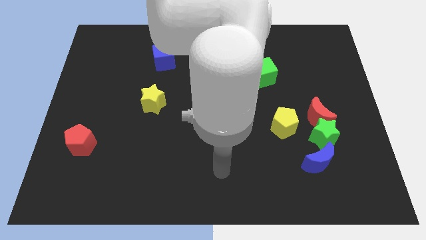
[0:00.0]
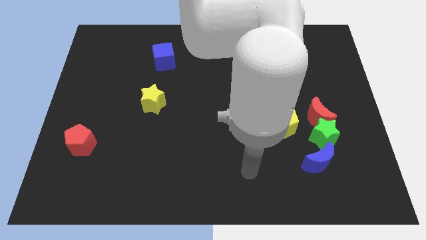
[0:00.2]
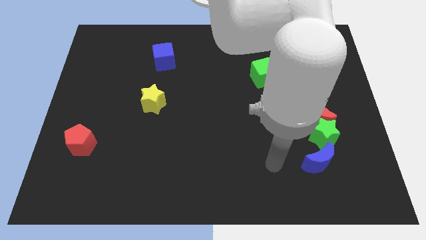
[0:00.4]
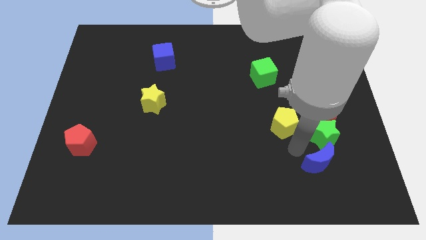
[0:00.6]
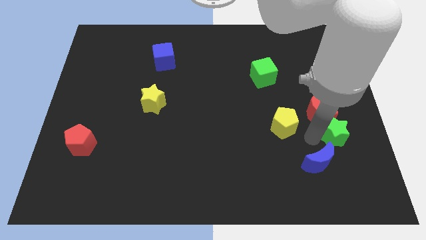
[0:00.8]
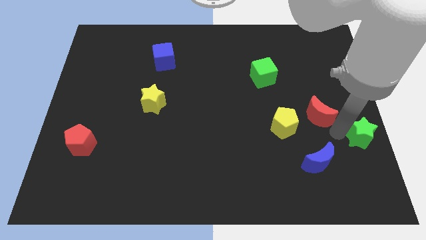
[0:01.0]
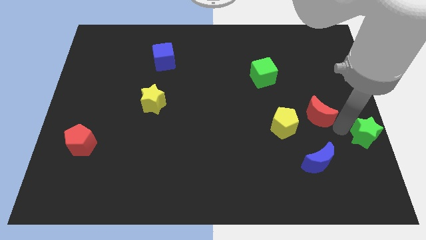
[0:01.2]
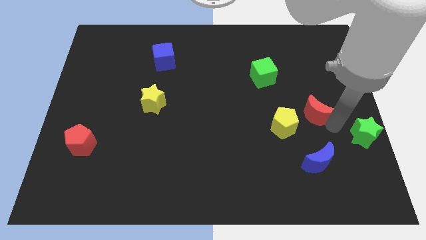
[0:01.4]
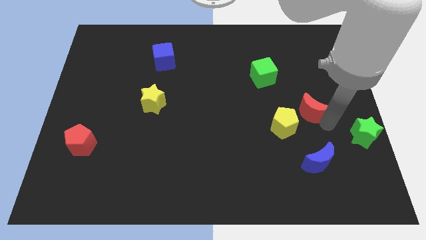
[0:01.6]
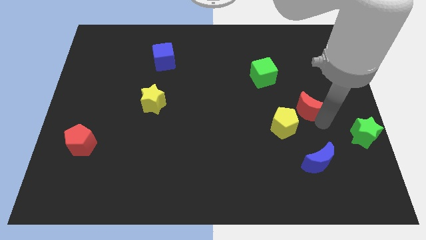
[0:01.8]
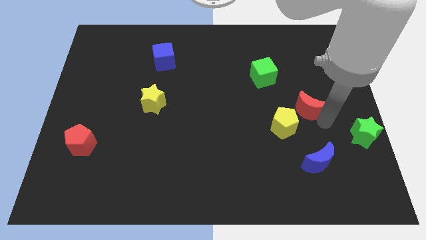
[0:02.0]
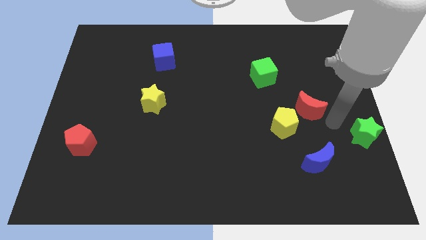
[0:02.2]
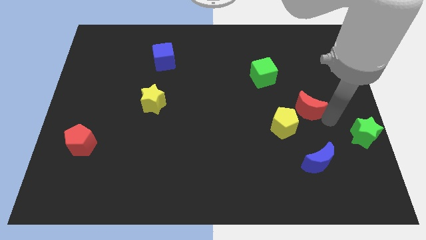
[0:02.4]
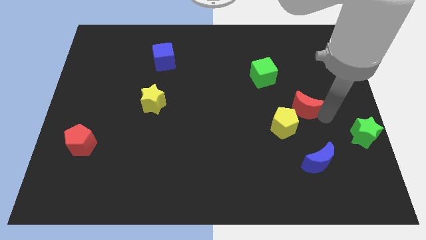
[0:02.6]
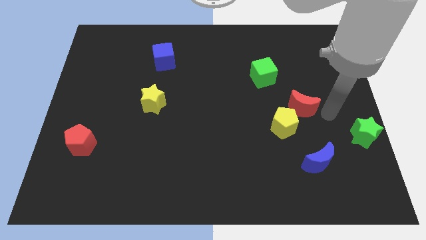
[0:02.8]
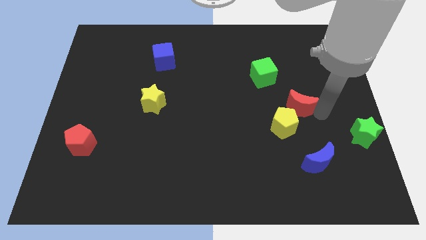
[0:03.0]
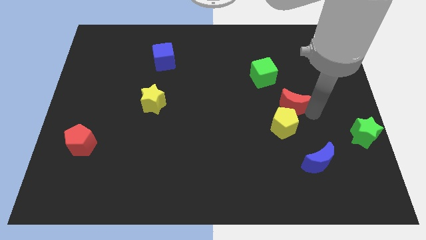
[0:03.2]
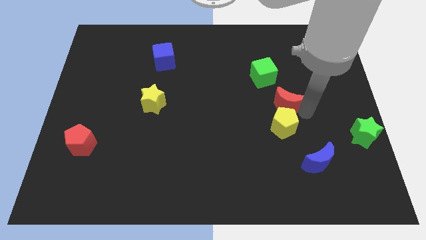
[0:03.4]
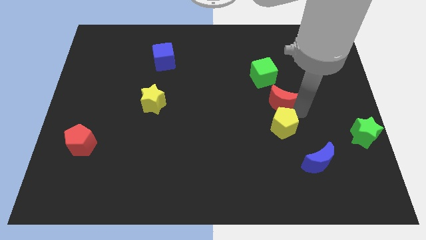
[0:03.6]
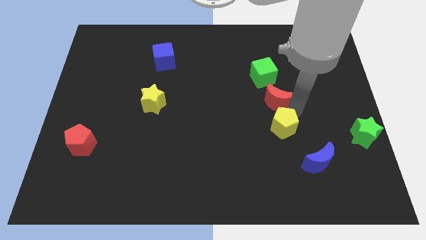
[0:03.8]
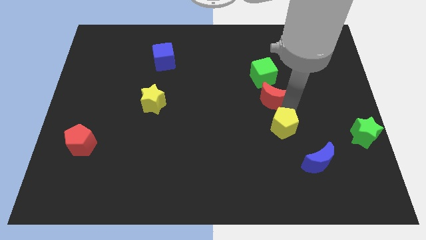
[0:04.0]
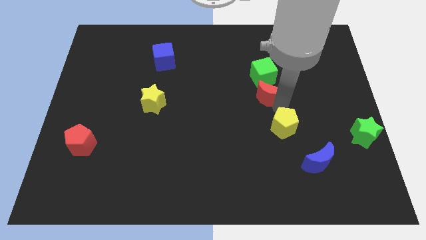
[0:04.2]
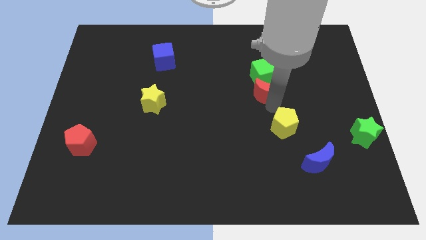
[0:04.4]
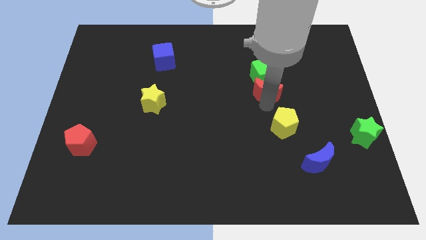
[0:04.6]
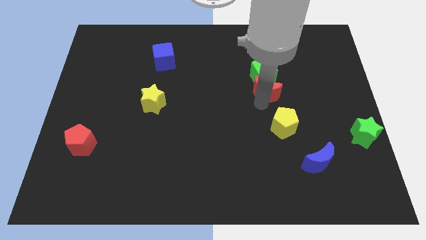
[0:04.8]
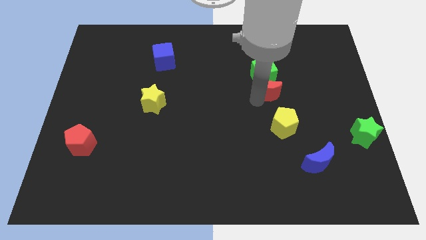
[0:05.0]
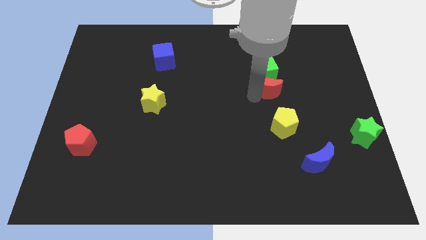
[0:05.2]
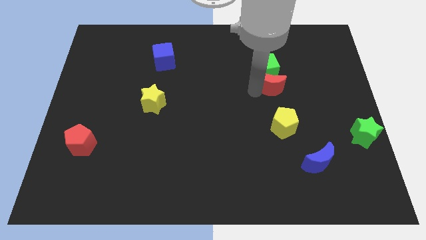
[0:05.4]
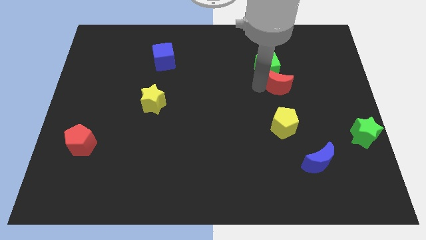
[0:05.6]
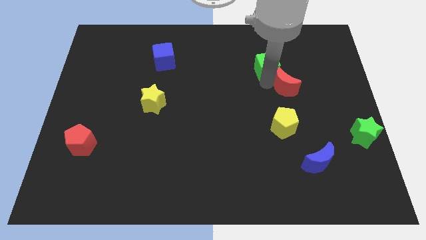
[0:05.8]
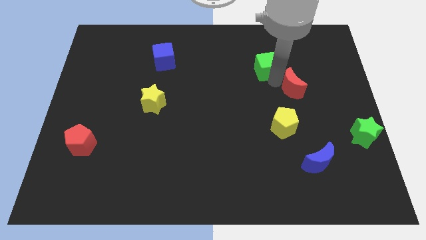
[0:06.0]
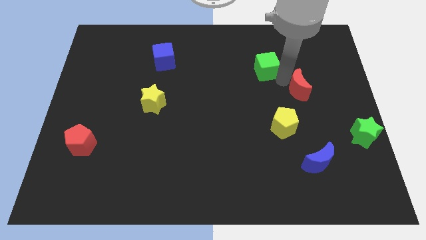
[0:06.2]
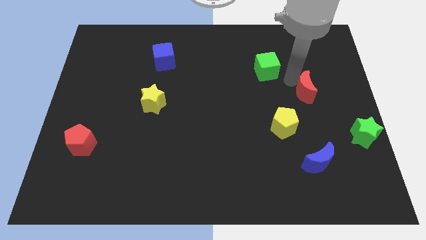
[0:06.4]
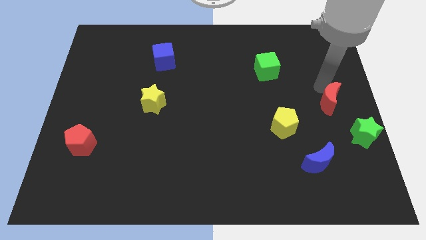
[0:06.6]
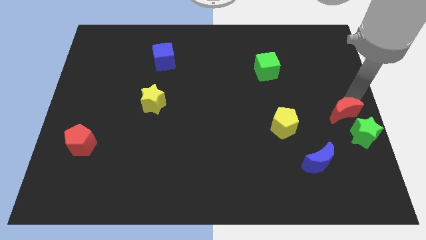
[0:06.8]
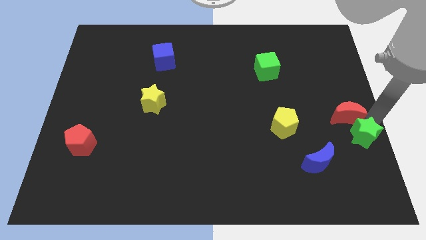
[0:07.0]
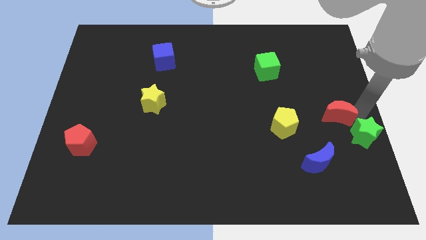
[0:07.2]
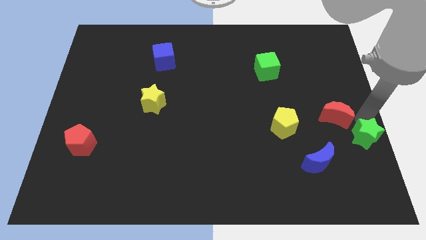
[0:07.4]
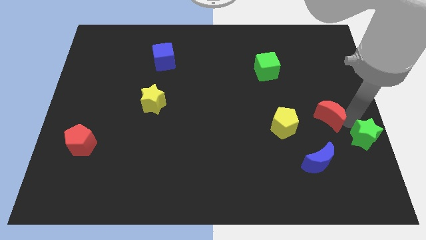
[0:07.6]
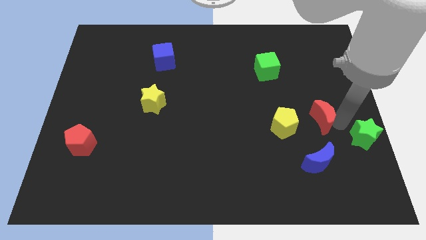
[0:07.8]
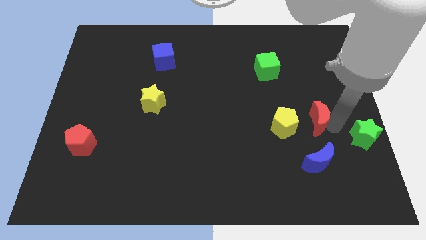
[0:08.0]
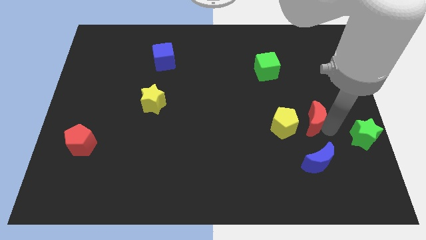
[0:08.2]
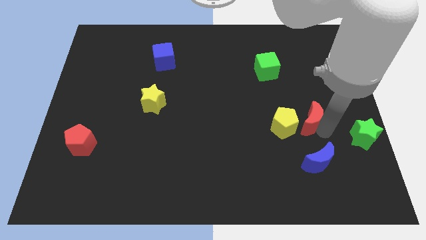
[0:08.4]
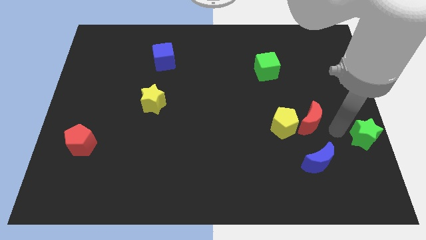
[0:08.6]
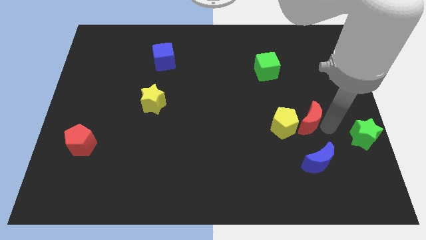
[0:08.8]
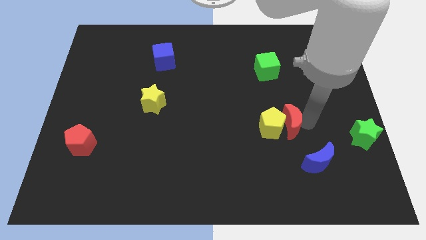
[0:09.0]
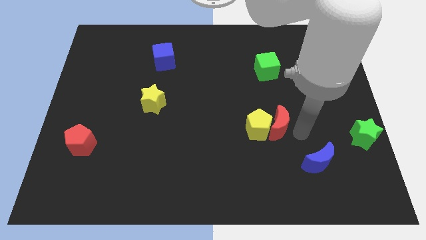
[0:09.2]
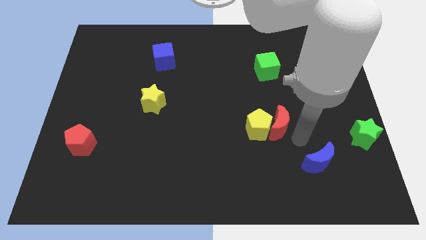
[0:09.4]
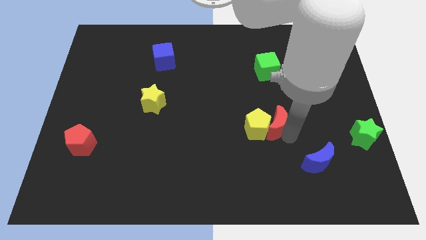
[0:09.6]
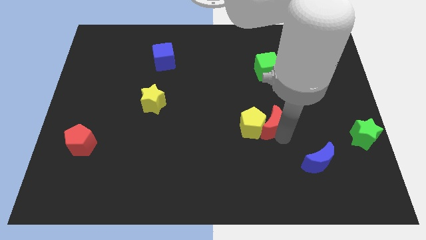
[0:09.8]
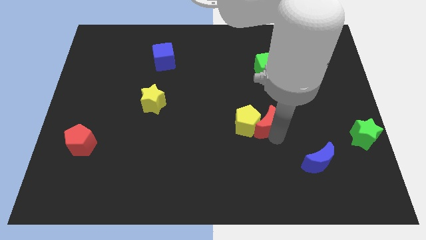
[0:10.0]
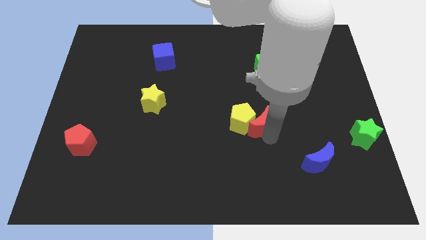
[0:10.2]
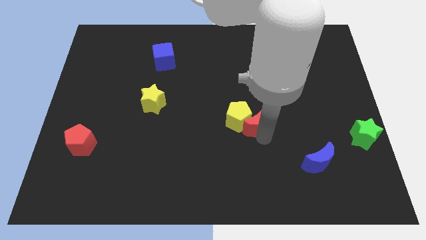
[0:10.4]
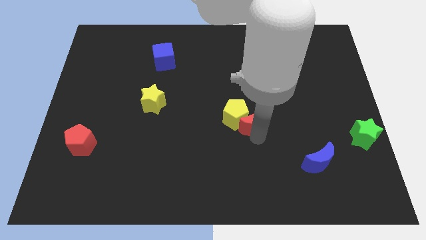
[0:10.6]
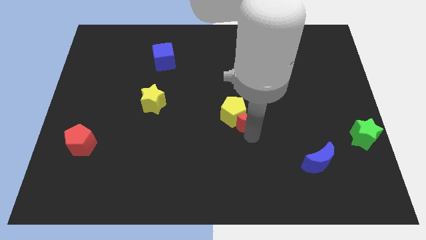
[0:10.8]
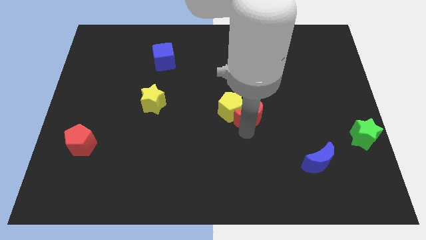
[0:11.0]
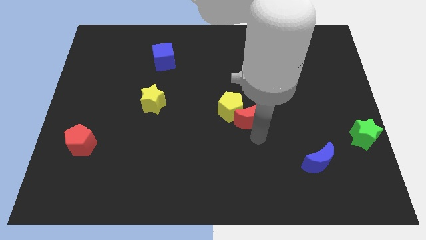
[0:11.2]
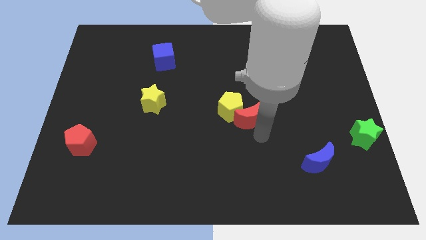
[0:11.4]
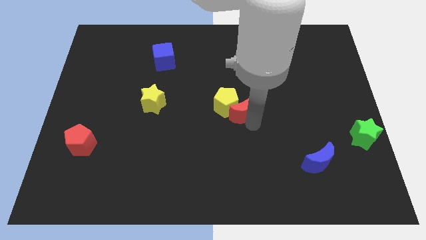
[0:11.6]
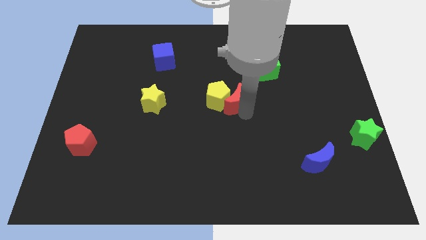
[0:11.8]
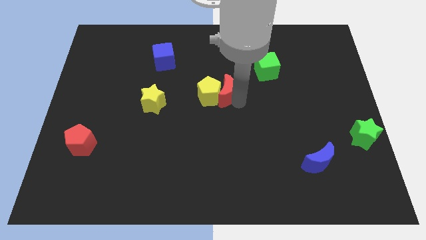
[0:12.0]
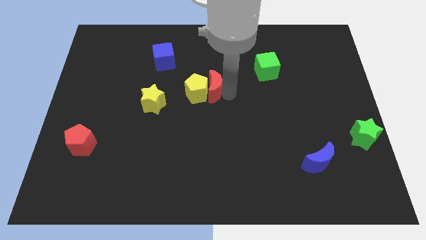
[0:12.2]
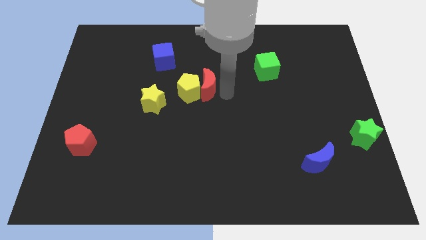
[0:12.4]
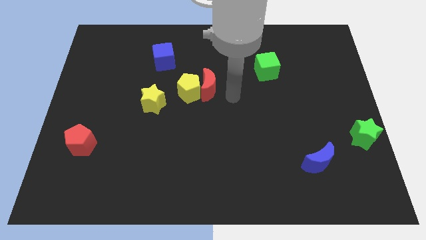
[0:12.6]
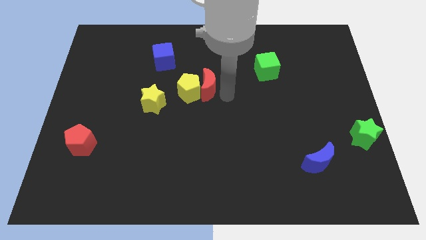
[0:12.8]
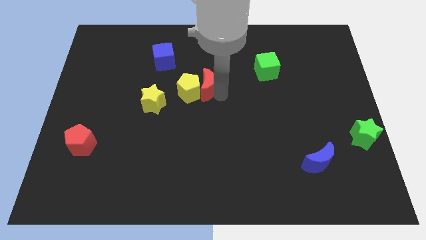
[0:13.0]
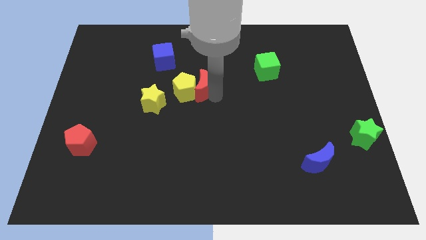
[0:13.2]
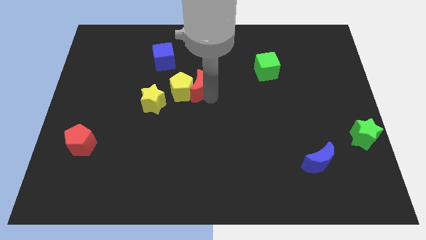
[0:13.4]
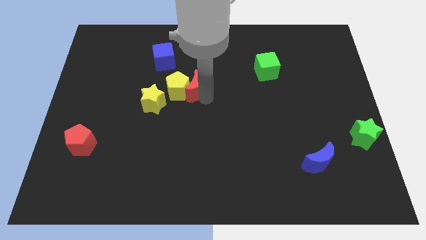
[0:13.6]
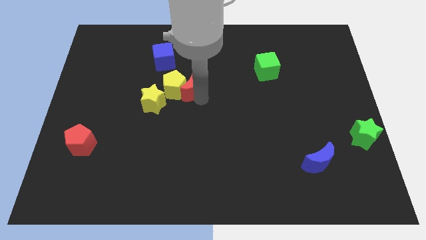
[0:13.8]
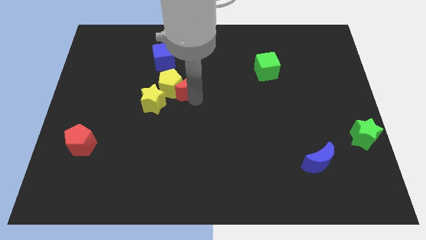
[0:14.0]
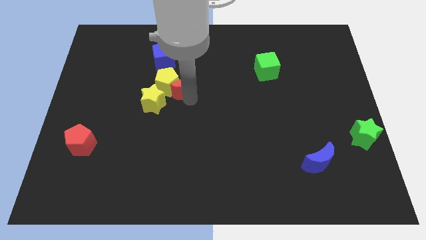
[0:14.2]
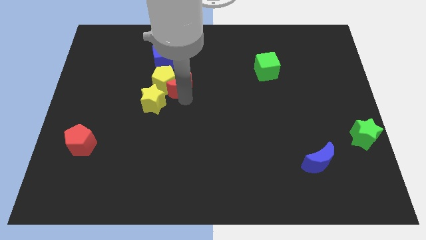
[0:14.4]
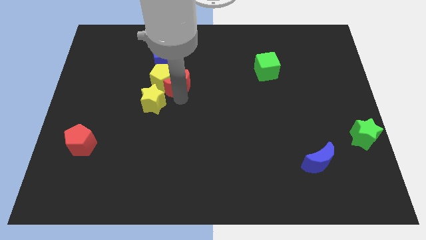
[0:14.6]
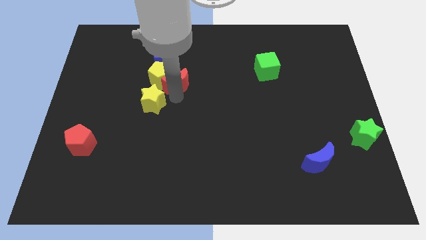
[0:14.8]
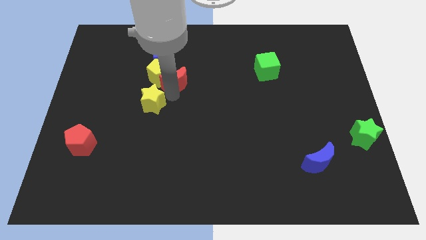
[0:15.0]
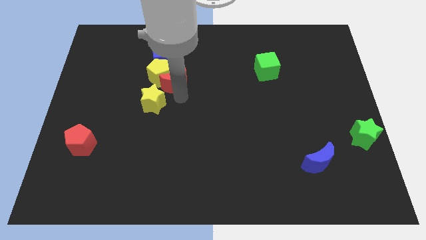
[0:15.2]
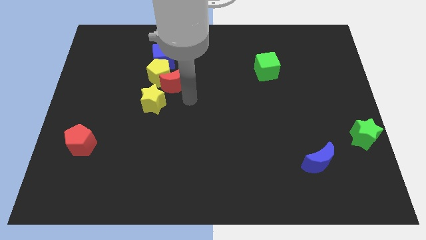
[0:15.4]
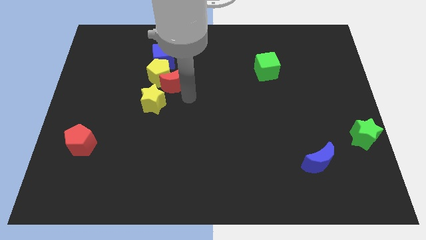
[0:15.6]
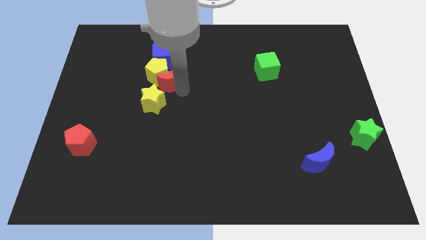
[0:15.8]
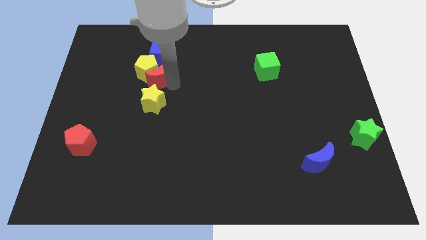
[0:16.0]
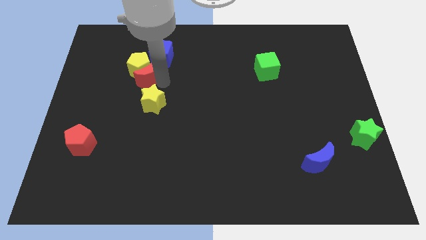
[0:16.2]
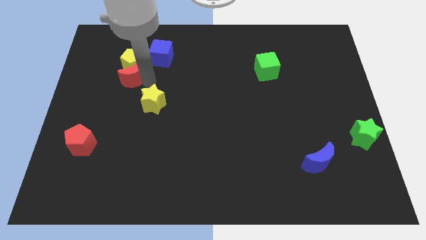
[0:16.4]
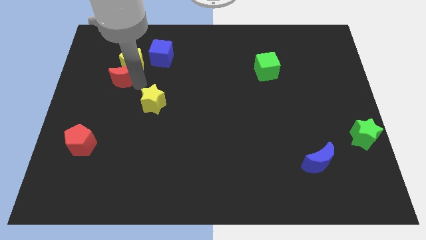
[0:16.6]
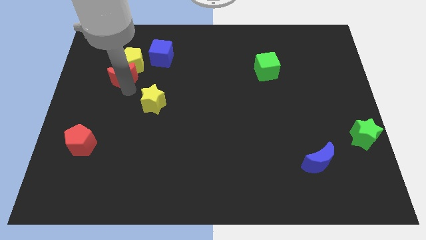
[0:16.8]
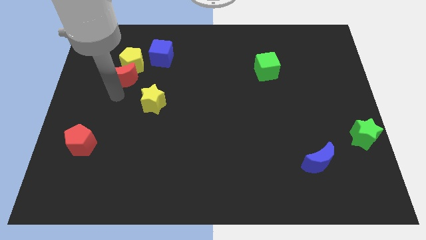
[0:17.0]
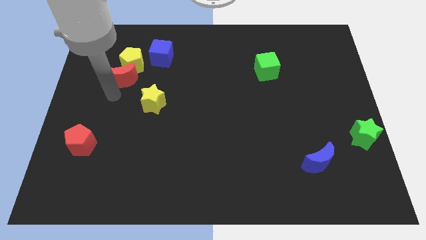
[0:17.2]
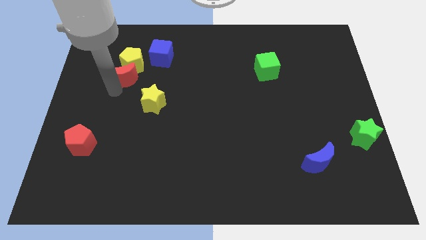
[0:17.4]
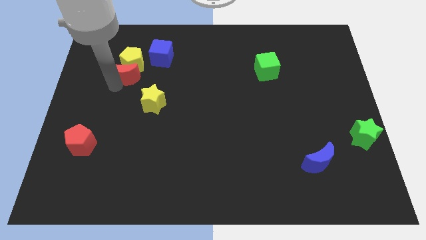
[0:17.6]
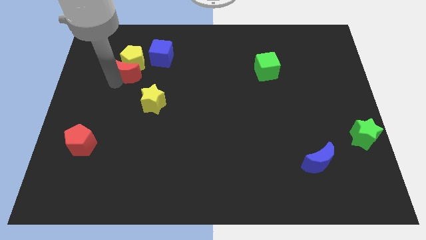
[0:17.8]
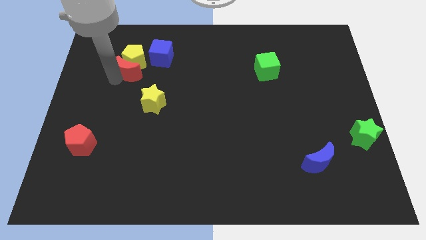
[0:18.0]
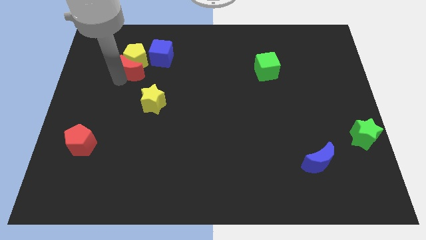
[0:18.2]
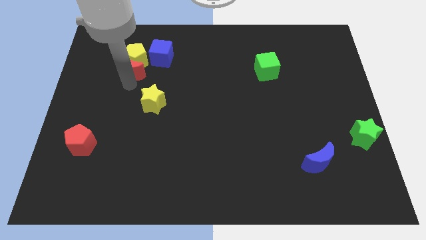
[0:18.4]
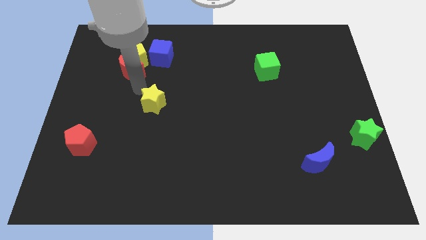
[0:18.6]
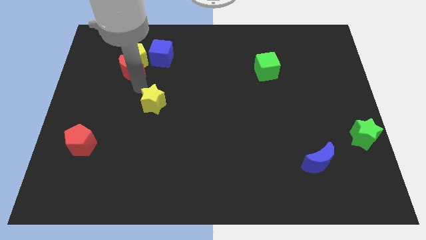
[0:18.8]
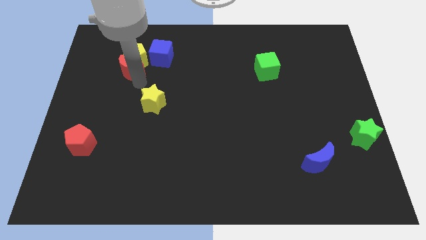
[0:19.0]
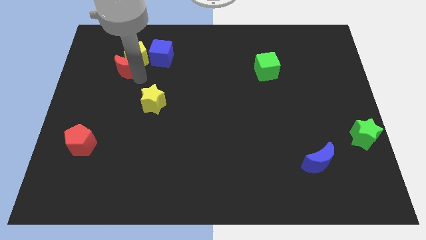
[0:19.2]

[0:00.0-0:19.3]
push the red moon to the left side of the blue cube
